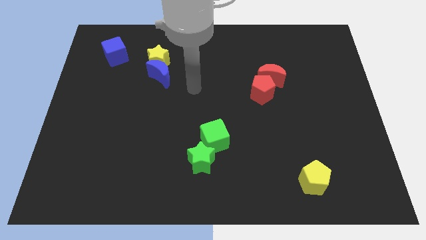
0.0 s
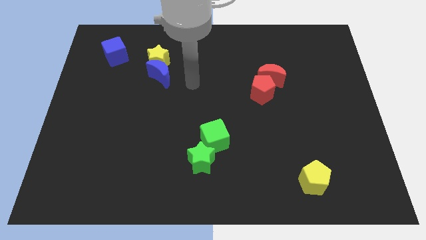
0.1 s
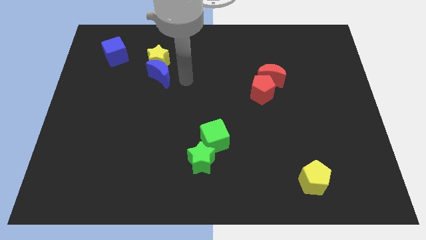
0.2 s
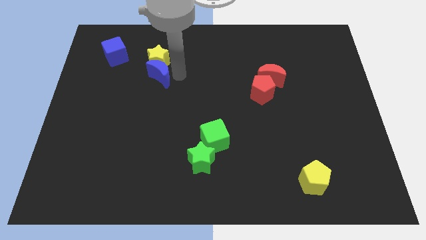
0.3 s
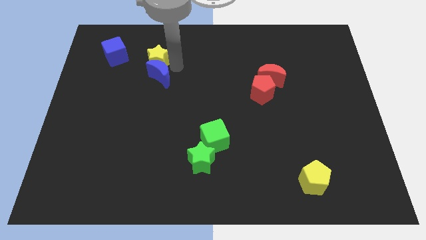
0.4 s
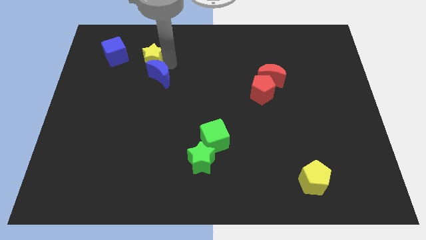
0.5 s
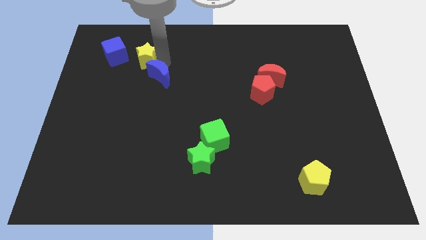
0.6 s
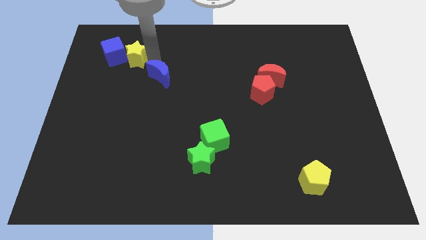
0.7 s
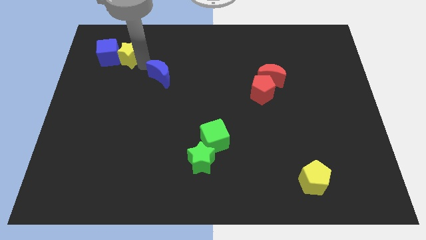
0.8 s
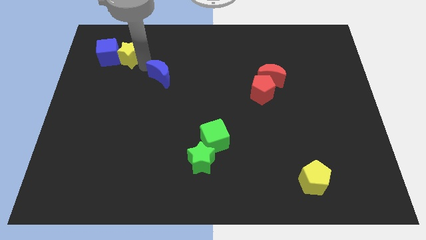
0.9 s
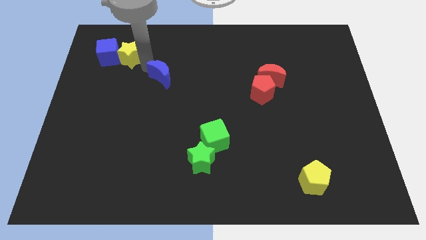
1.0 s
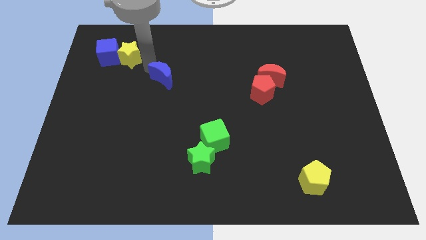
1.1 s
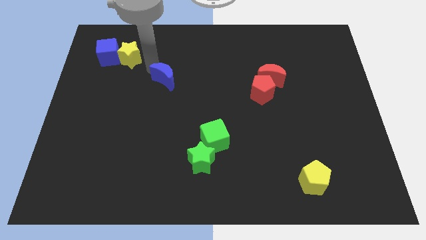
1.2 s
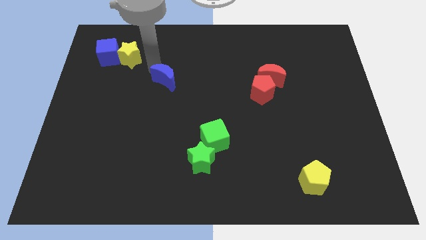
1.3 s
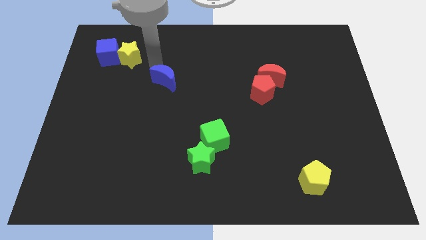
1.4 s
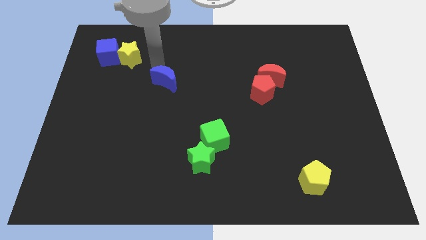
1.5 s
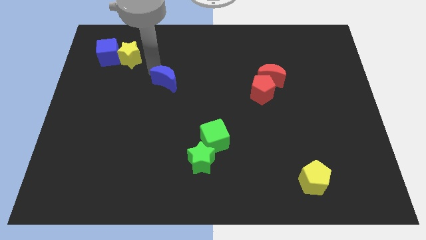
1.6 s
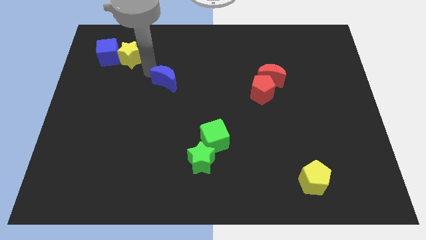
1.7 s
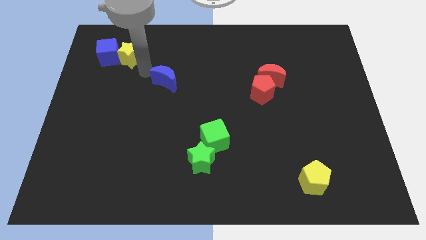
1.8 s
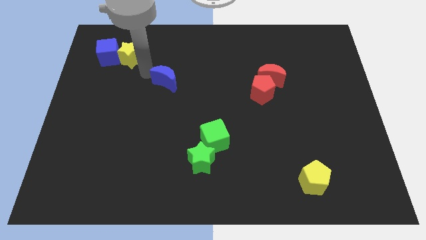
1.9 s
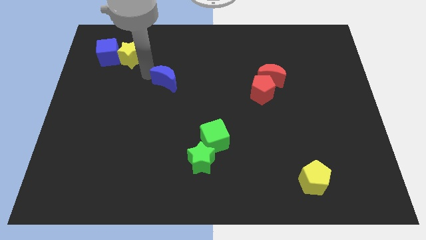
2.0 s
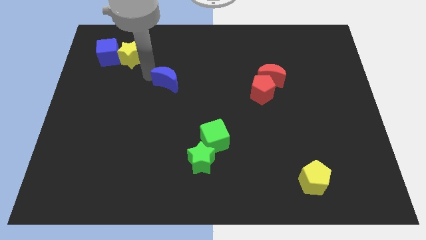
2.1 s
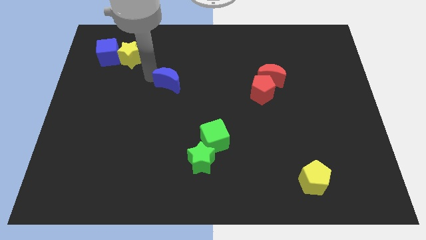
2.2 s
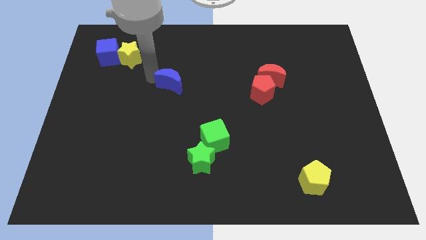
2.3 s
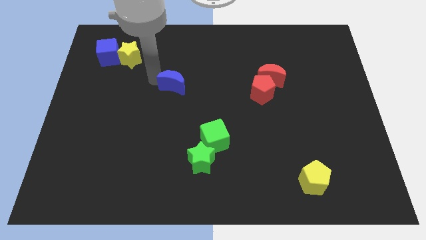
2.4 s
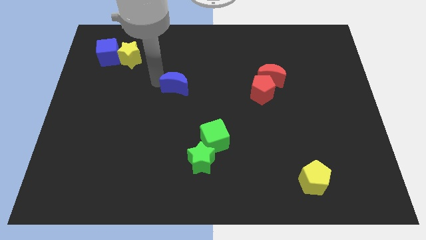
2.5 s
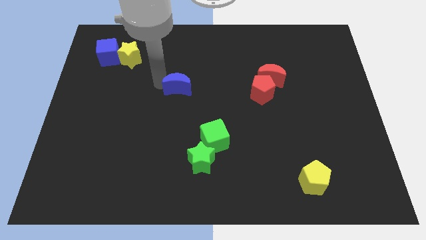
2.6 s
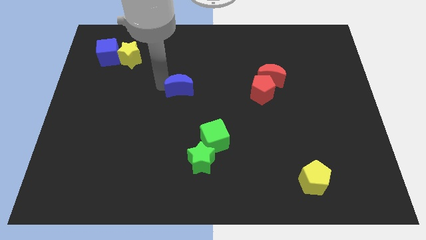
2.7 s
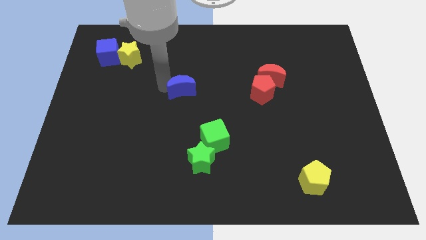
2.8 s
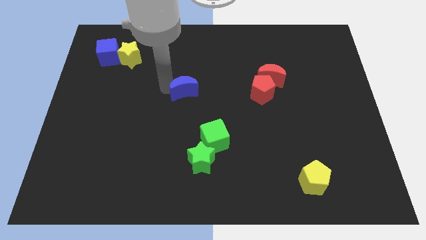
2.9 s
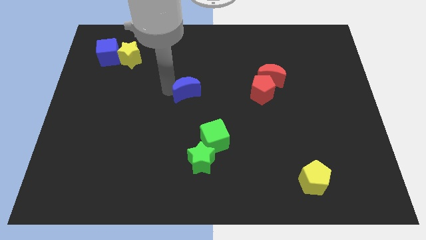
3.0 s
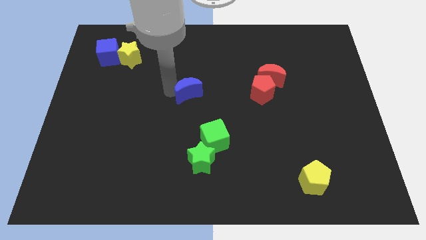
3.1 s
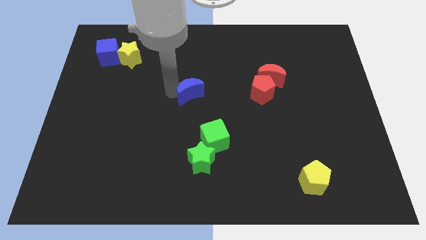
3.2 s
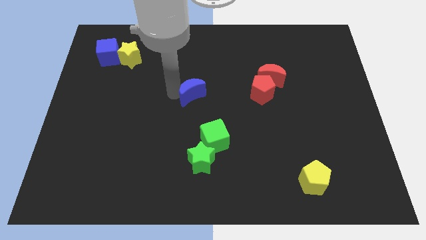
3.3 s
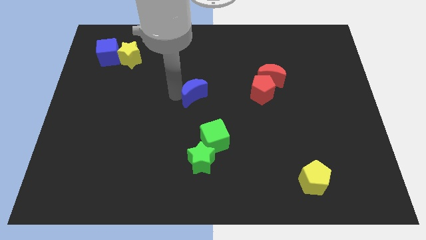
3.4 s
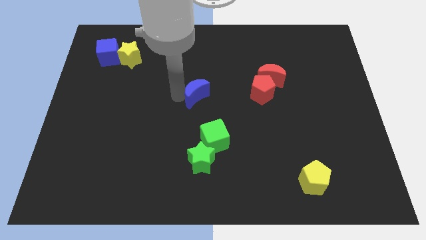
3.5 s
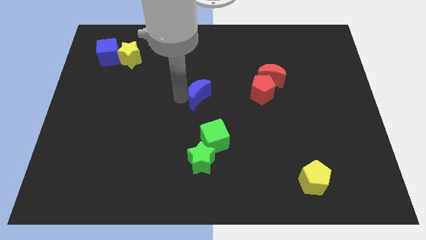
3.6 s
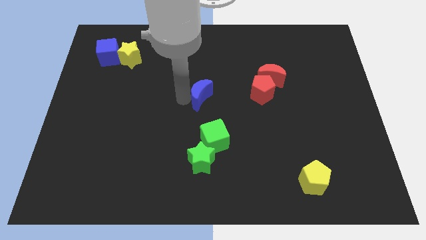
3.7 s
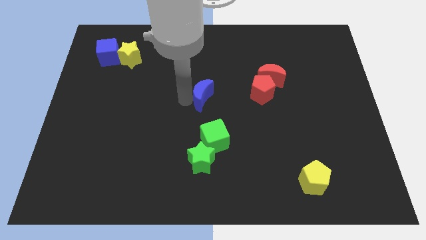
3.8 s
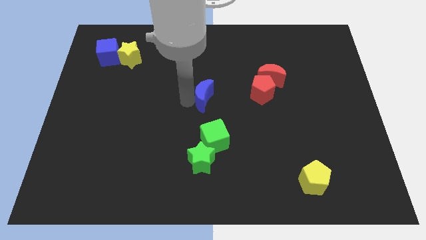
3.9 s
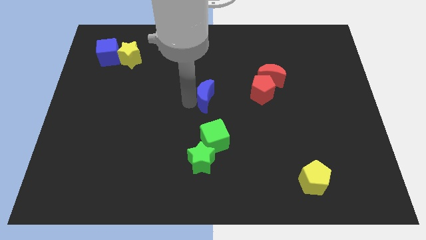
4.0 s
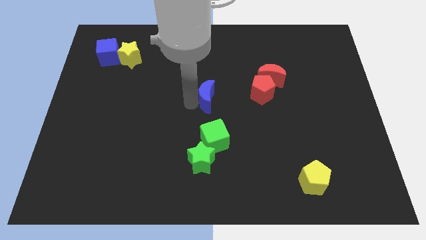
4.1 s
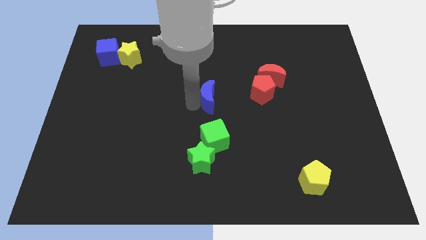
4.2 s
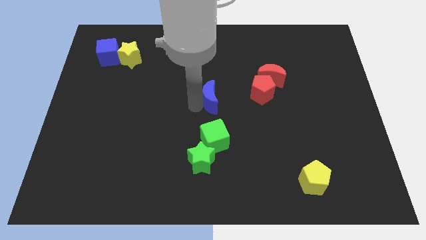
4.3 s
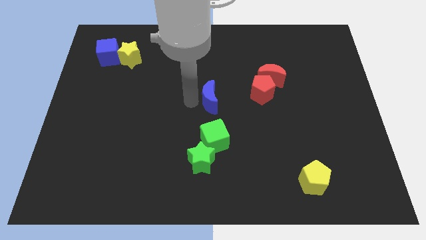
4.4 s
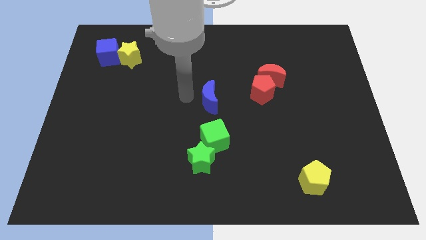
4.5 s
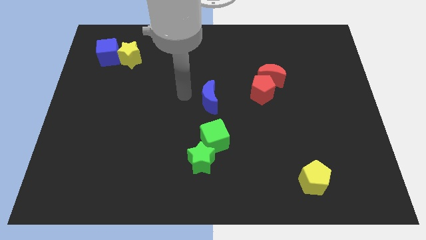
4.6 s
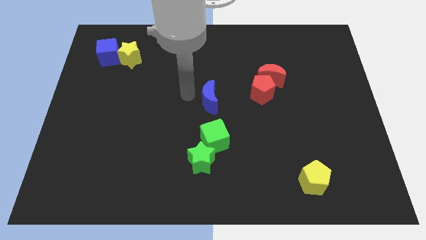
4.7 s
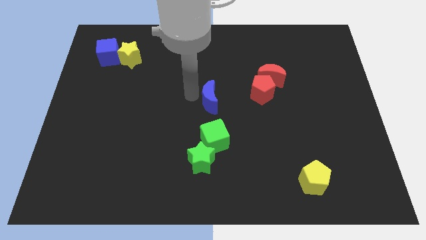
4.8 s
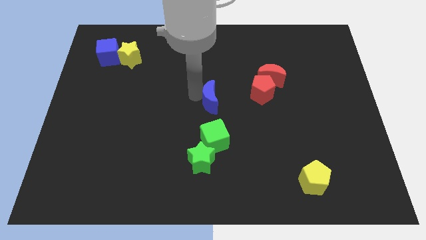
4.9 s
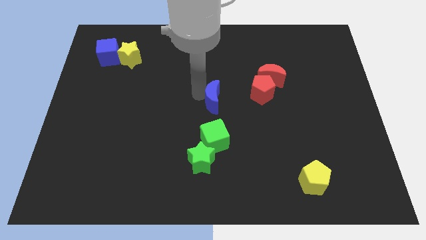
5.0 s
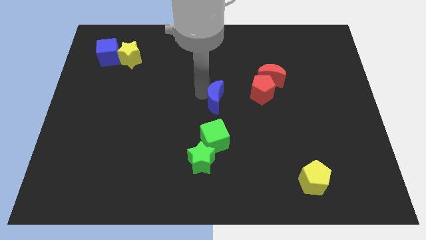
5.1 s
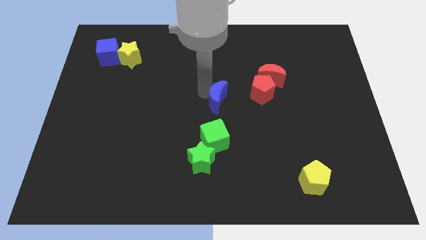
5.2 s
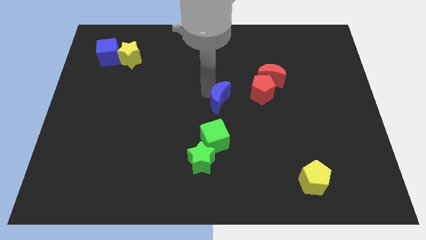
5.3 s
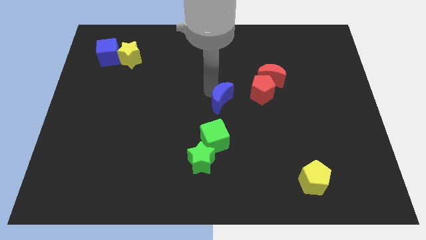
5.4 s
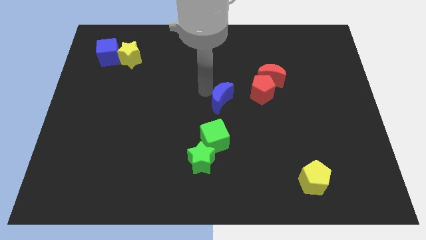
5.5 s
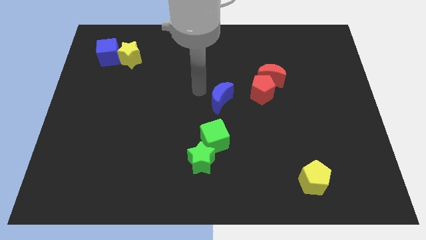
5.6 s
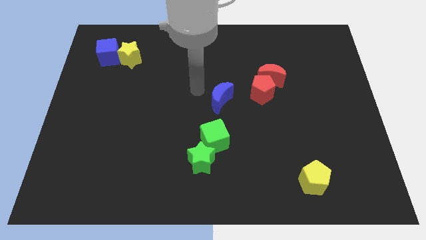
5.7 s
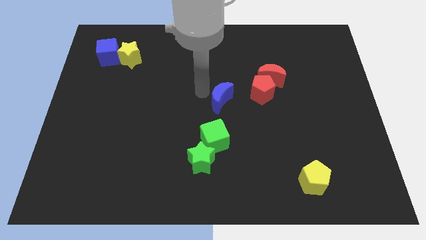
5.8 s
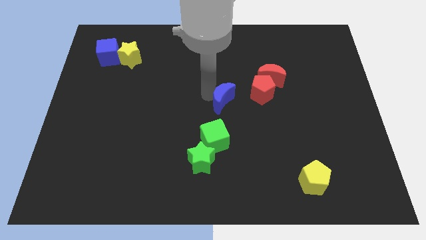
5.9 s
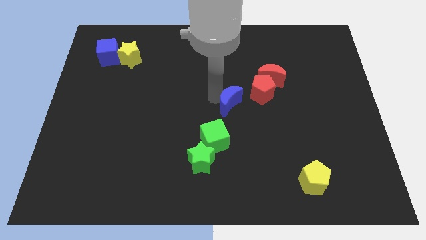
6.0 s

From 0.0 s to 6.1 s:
put the blue moon to the bottom left of the red pentagon

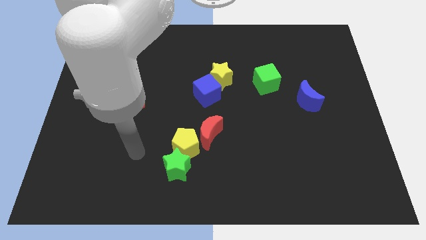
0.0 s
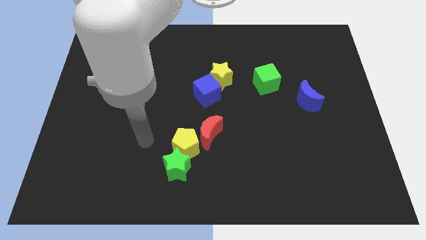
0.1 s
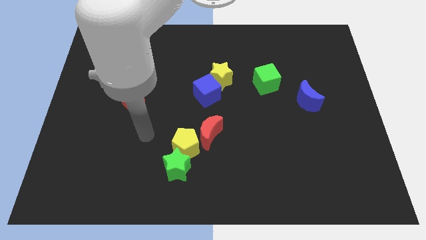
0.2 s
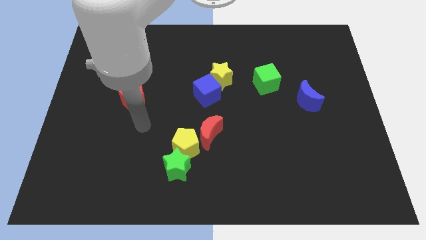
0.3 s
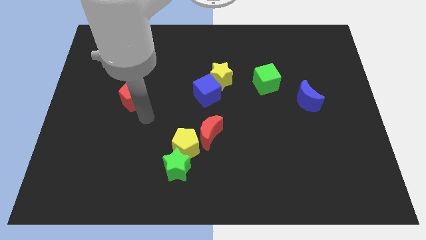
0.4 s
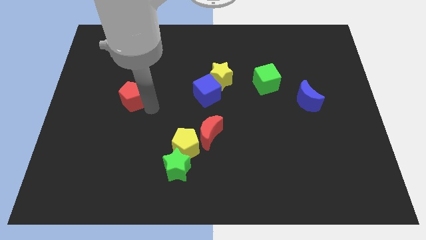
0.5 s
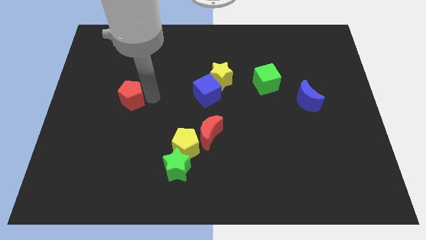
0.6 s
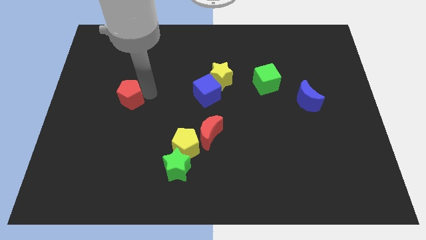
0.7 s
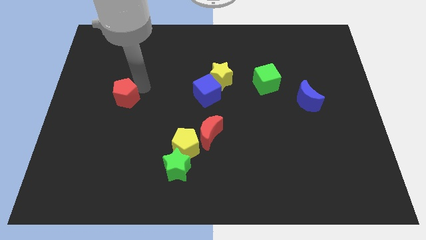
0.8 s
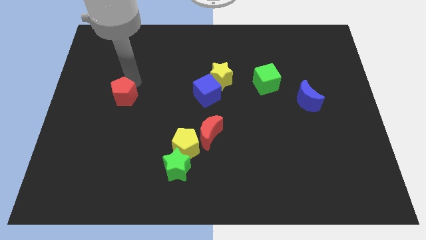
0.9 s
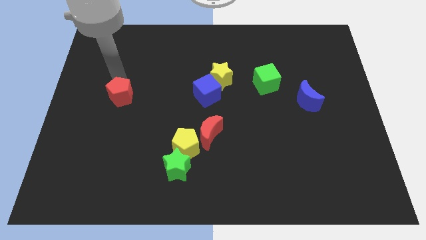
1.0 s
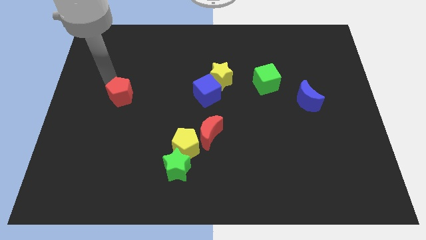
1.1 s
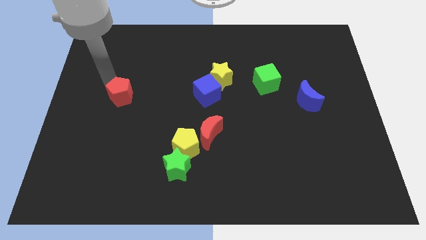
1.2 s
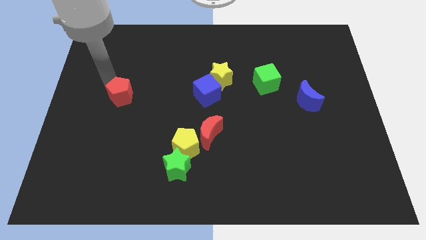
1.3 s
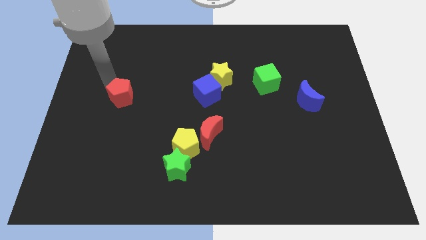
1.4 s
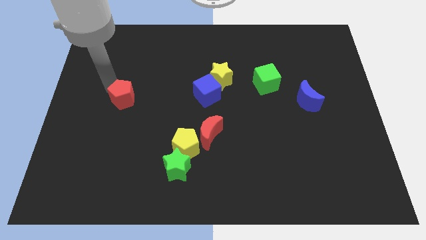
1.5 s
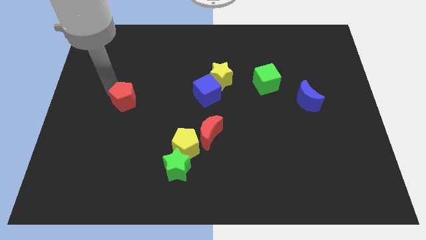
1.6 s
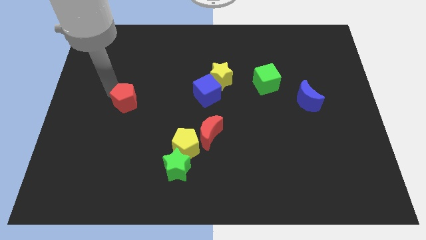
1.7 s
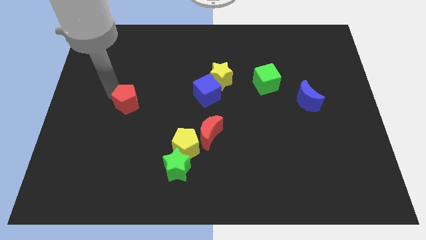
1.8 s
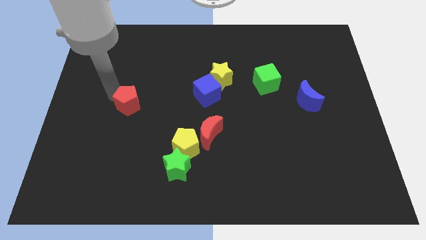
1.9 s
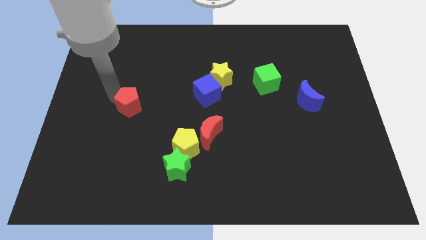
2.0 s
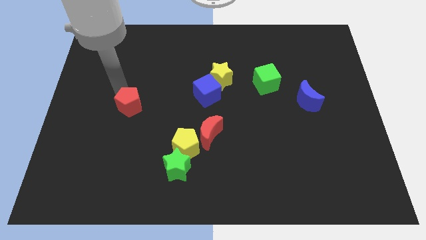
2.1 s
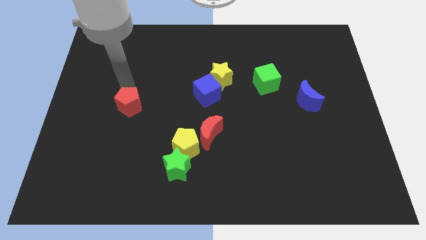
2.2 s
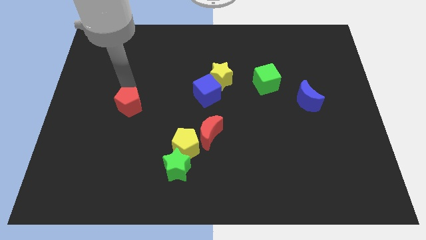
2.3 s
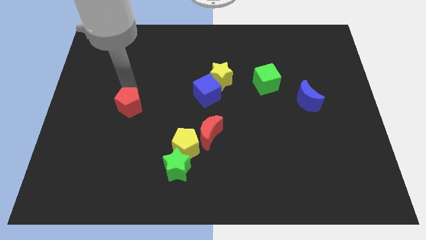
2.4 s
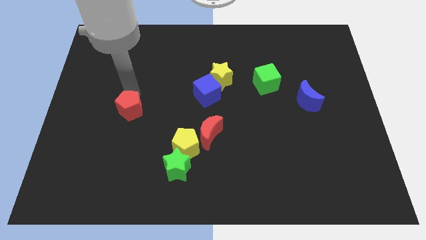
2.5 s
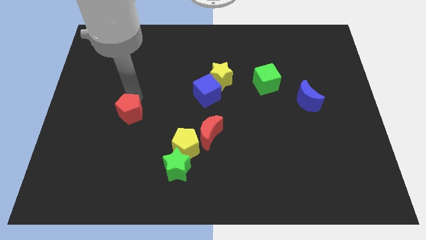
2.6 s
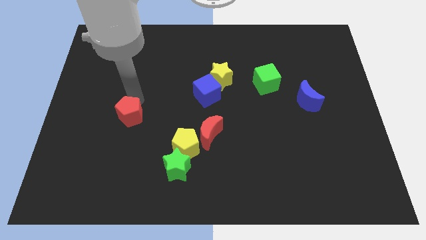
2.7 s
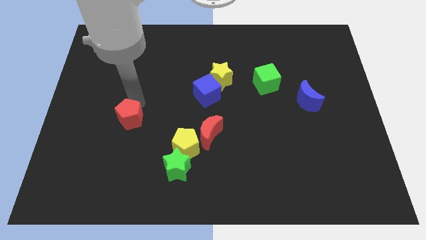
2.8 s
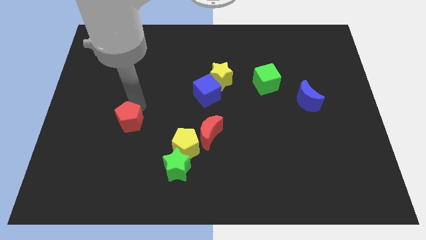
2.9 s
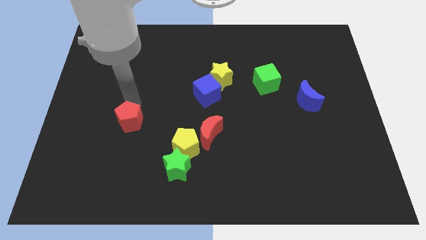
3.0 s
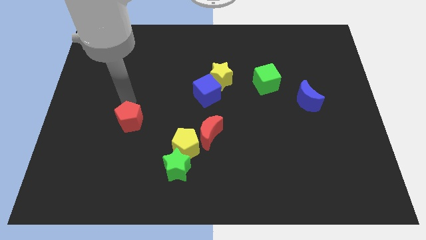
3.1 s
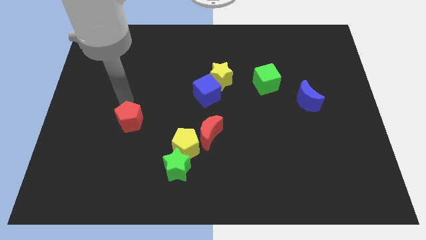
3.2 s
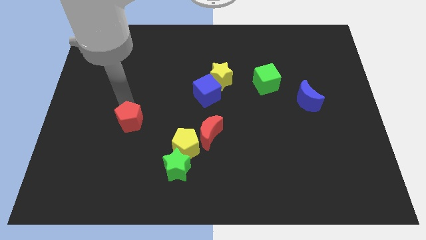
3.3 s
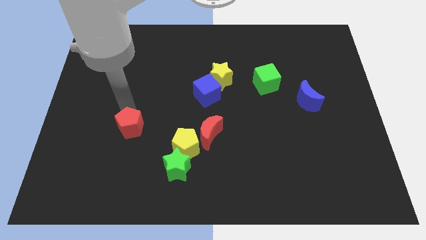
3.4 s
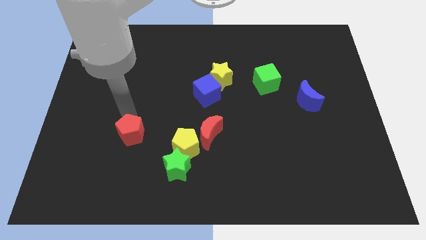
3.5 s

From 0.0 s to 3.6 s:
slide the red pentagon to the left of the yellow pentagon
